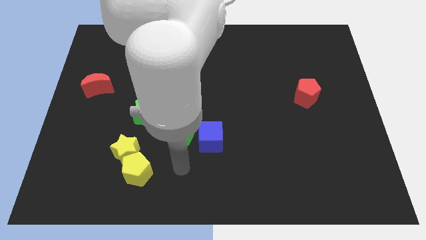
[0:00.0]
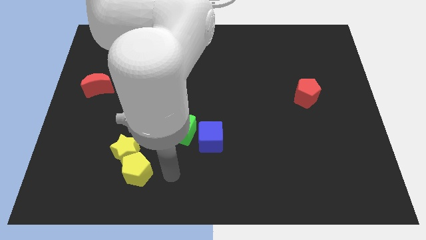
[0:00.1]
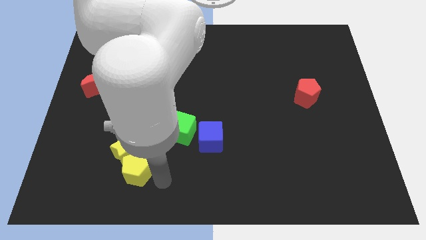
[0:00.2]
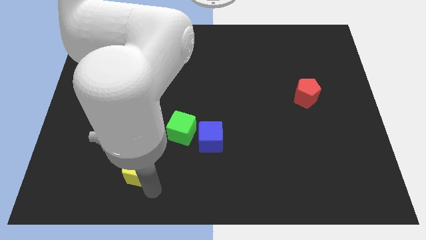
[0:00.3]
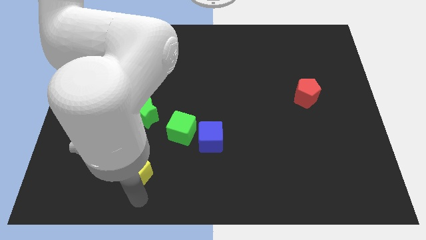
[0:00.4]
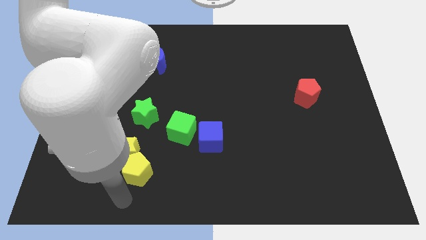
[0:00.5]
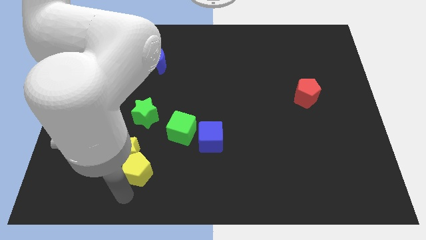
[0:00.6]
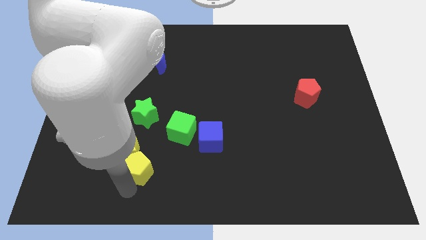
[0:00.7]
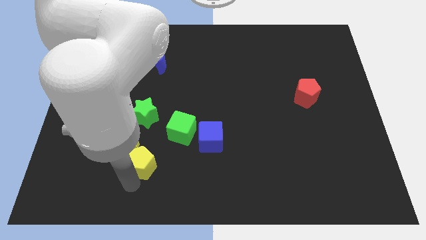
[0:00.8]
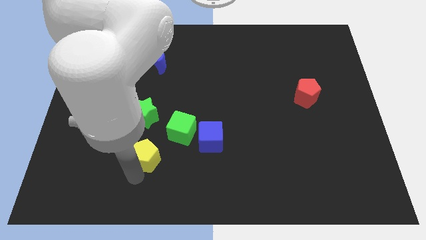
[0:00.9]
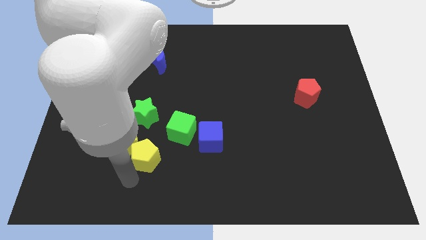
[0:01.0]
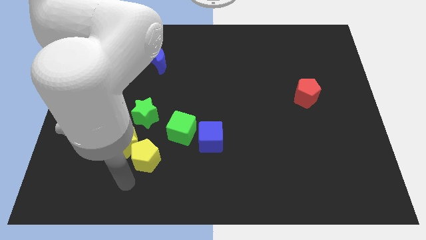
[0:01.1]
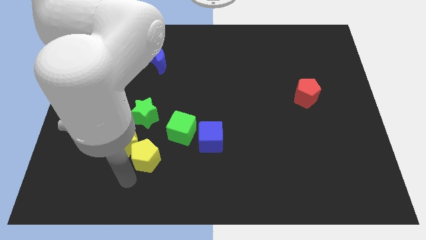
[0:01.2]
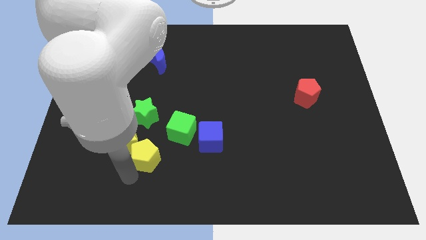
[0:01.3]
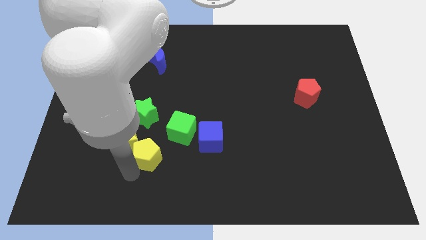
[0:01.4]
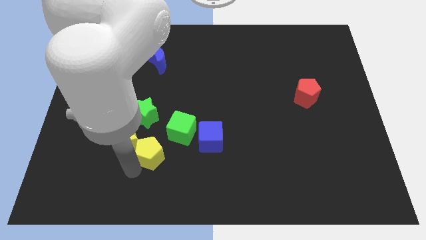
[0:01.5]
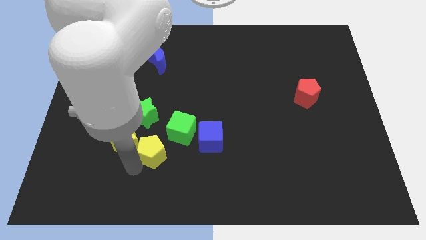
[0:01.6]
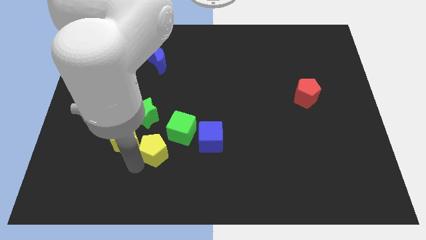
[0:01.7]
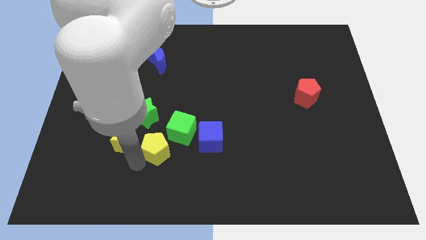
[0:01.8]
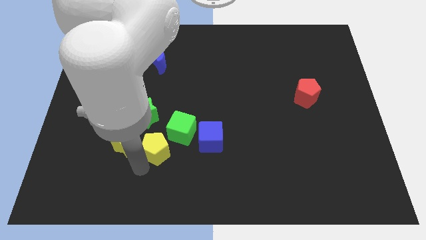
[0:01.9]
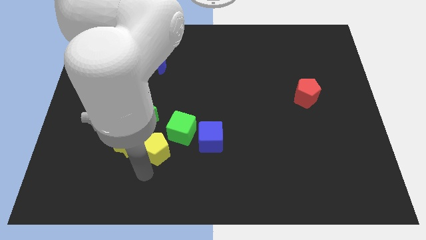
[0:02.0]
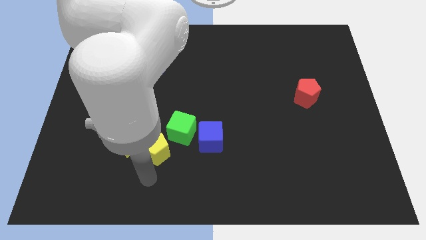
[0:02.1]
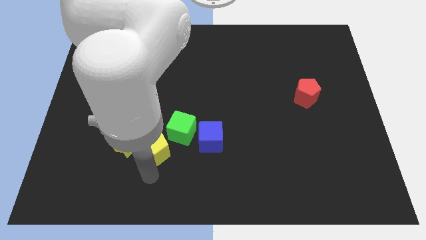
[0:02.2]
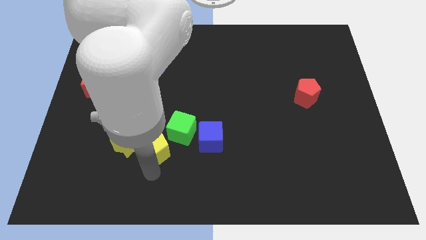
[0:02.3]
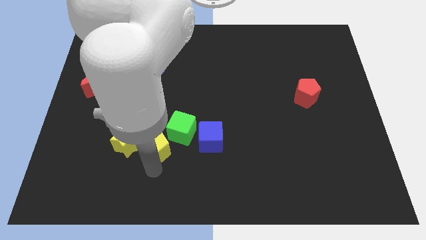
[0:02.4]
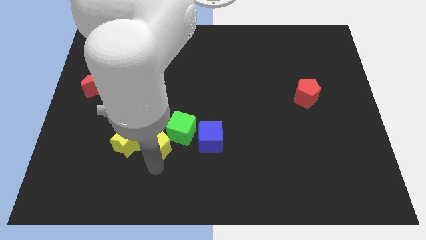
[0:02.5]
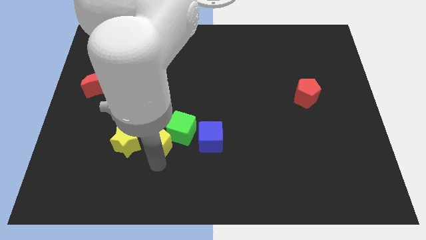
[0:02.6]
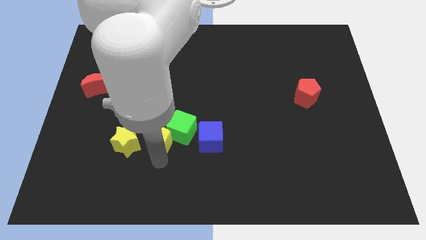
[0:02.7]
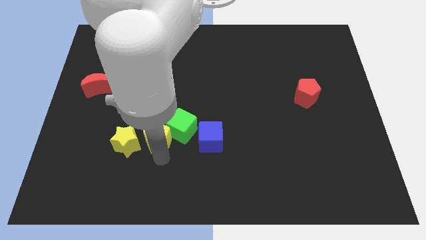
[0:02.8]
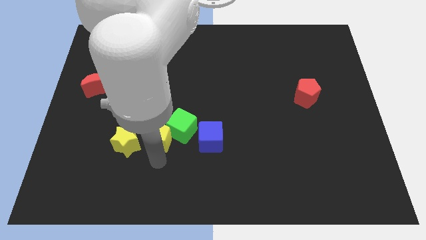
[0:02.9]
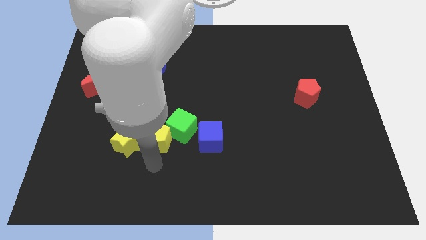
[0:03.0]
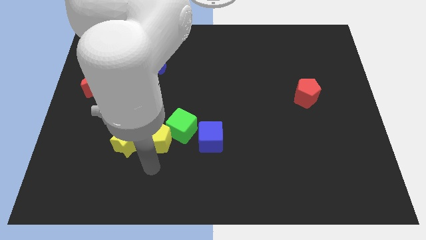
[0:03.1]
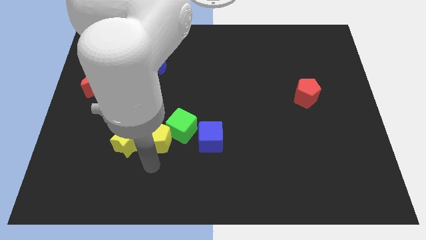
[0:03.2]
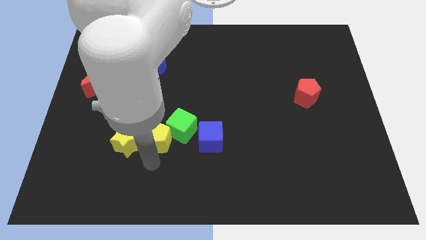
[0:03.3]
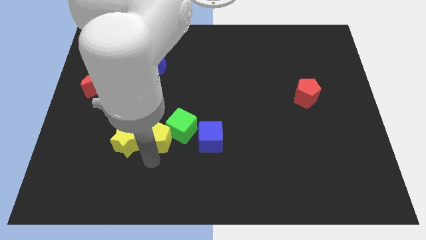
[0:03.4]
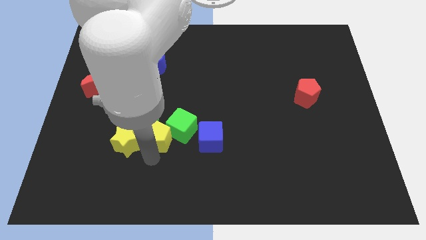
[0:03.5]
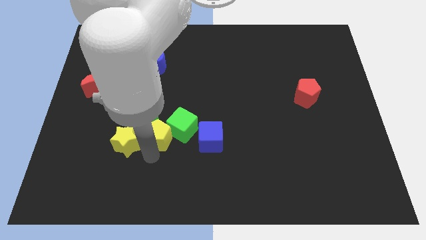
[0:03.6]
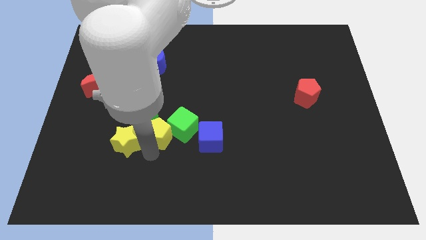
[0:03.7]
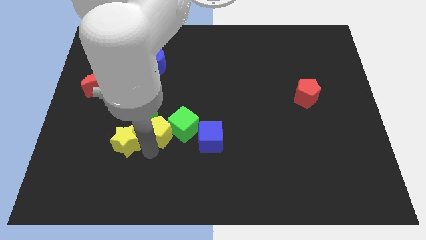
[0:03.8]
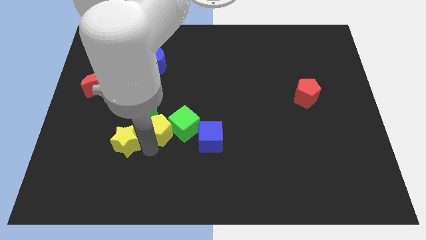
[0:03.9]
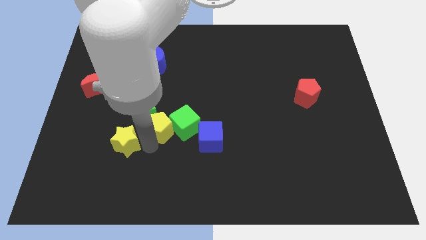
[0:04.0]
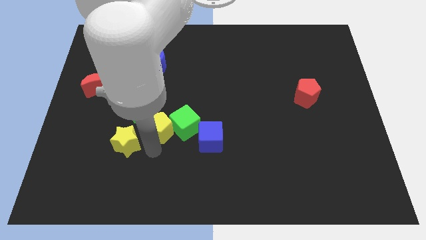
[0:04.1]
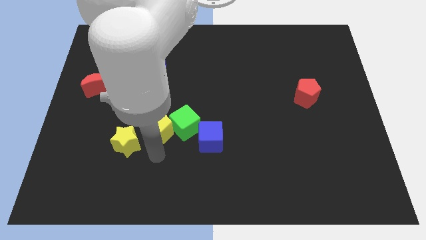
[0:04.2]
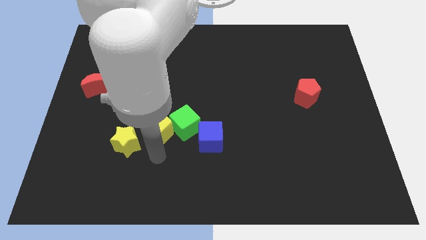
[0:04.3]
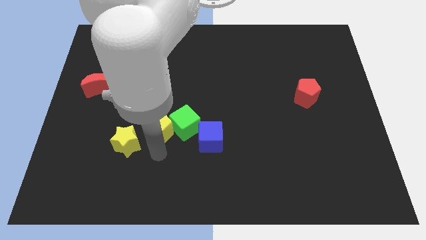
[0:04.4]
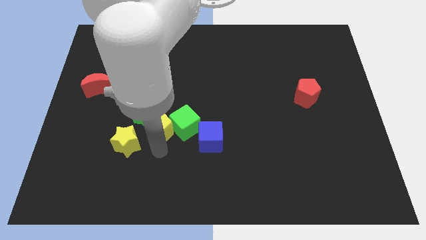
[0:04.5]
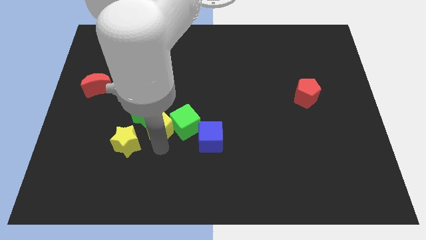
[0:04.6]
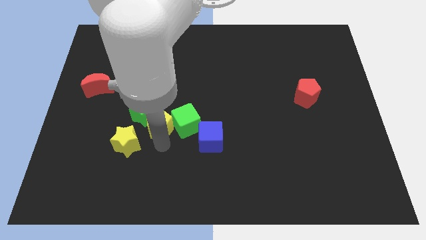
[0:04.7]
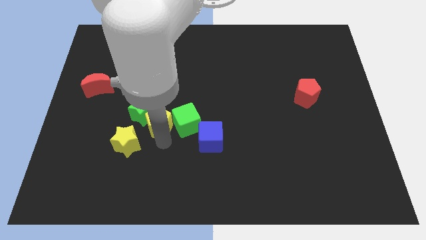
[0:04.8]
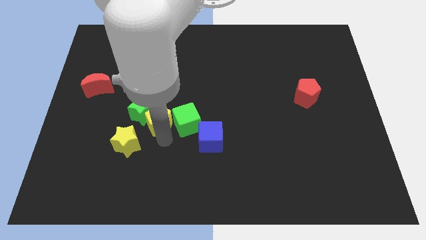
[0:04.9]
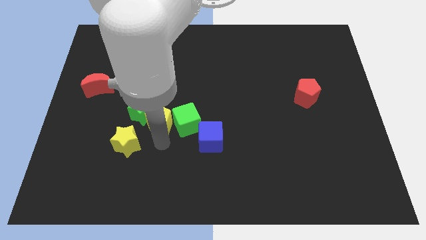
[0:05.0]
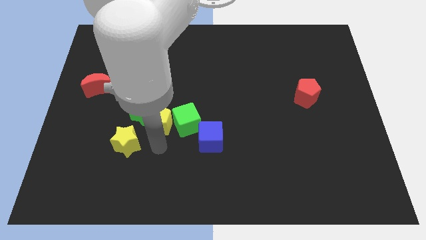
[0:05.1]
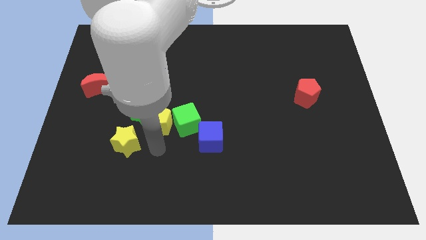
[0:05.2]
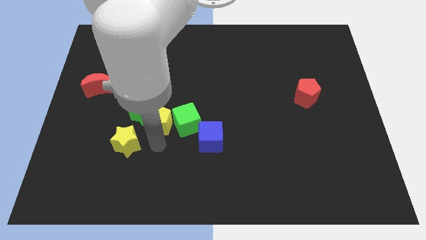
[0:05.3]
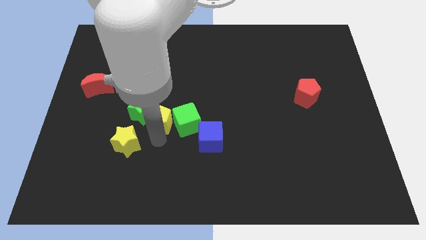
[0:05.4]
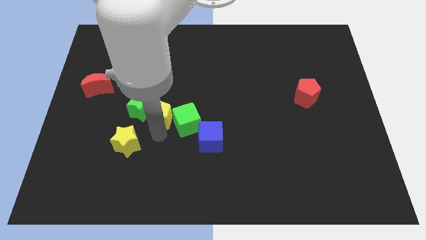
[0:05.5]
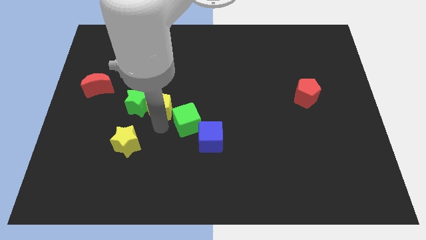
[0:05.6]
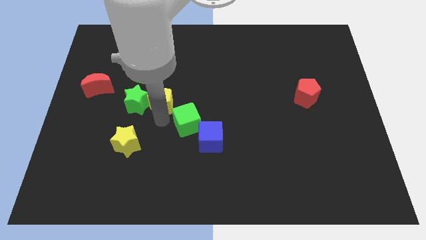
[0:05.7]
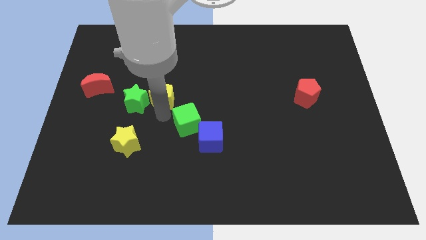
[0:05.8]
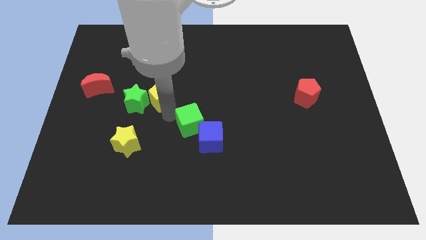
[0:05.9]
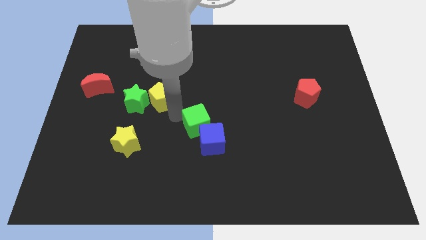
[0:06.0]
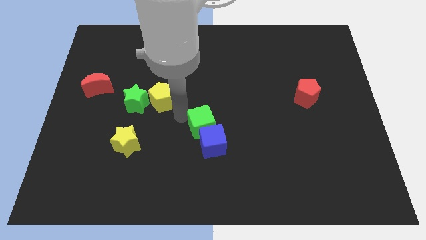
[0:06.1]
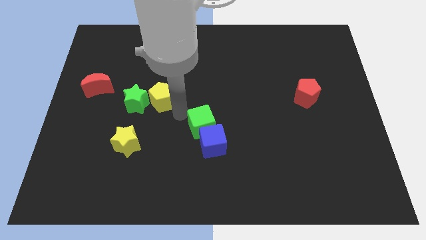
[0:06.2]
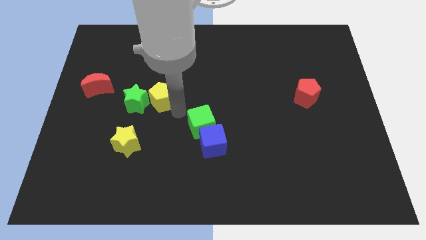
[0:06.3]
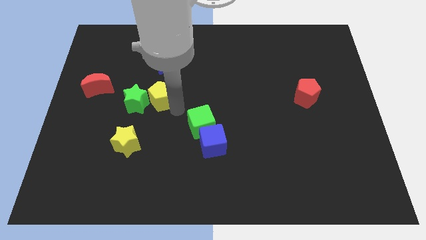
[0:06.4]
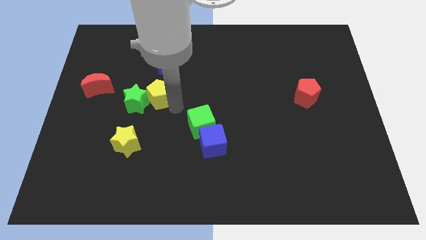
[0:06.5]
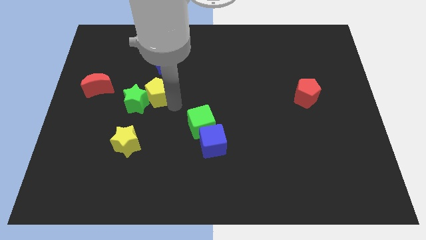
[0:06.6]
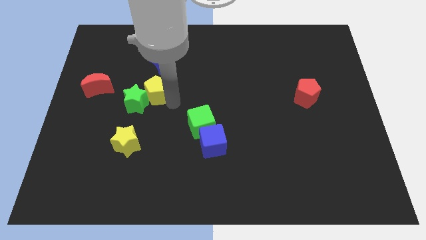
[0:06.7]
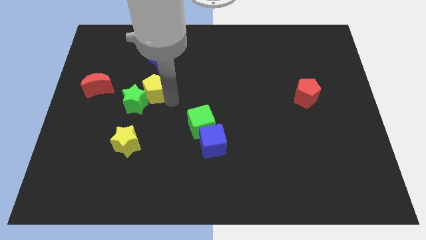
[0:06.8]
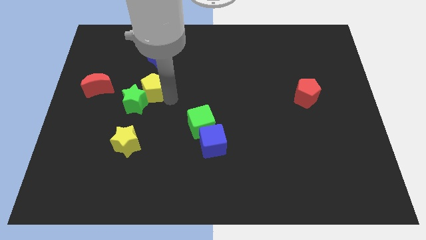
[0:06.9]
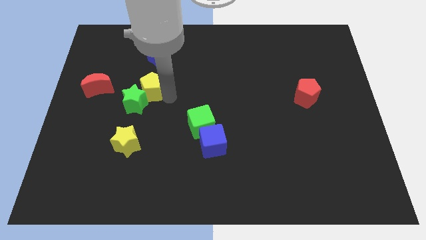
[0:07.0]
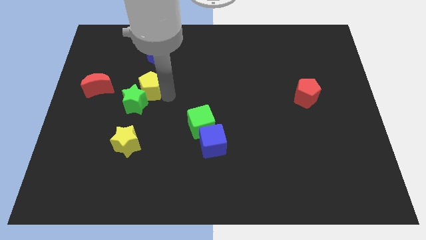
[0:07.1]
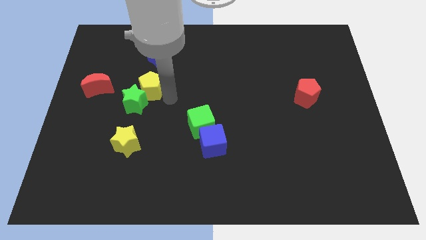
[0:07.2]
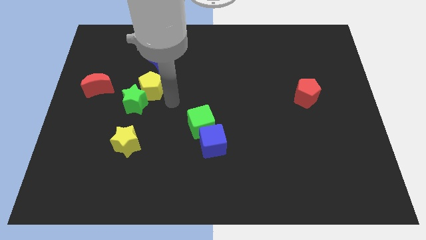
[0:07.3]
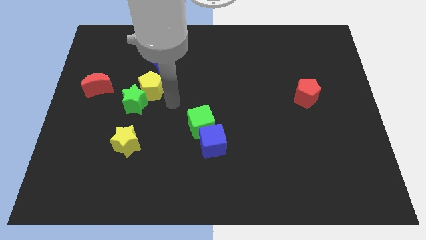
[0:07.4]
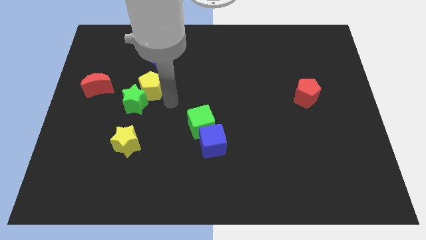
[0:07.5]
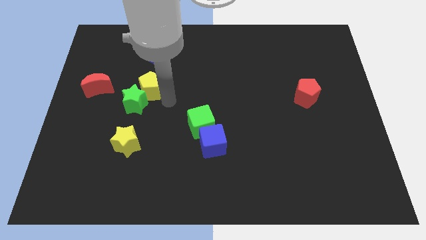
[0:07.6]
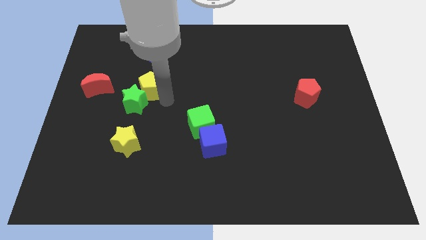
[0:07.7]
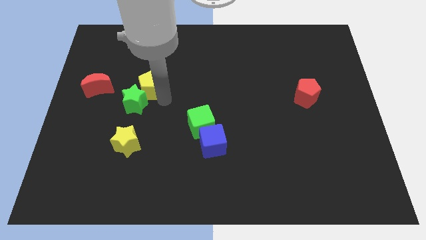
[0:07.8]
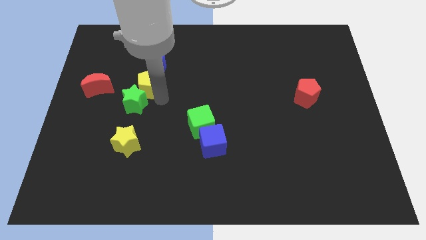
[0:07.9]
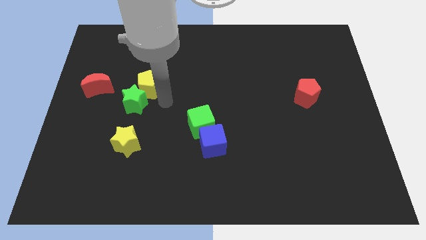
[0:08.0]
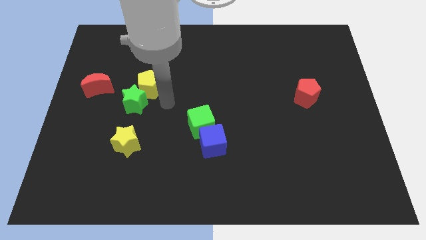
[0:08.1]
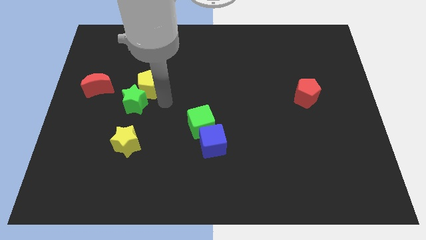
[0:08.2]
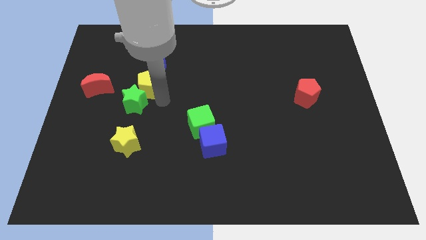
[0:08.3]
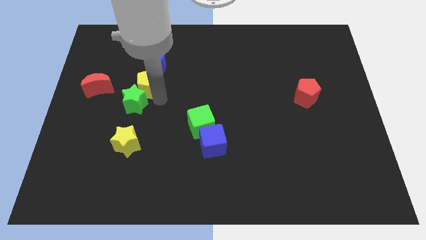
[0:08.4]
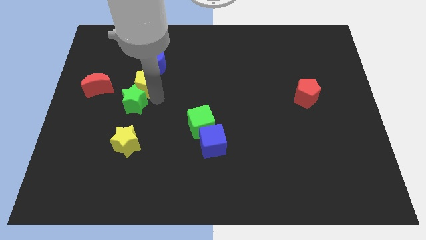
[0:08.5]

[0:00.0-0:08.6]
put the yellow pentagon diagonally down and to the left of the blue moon
